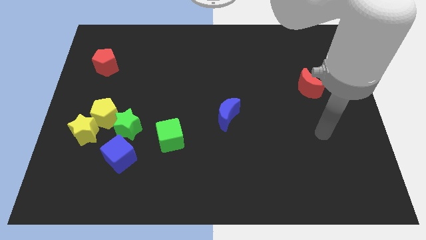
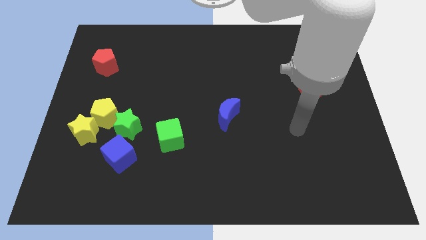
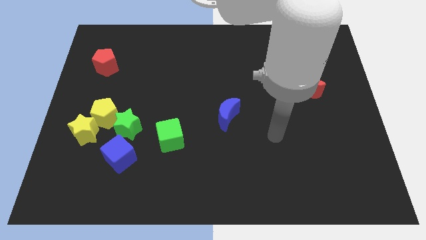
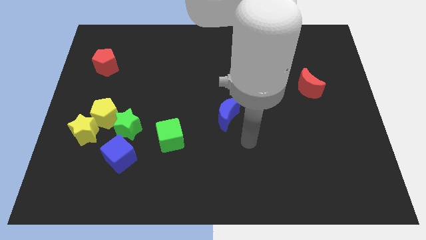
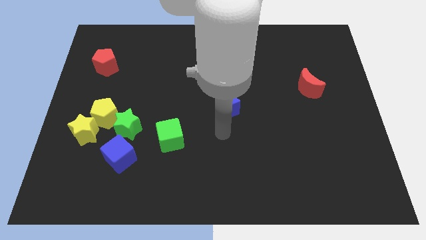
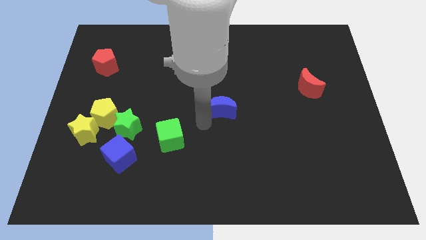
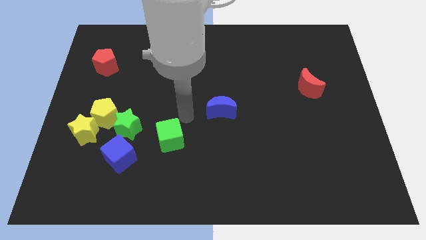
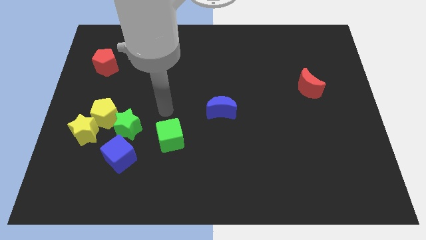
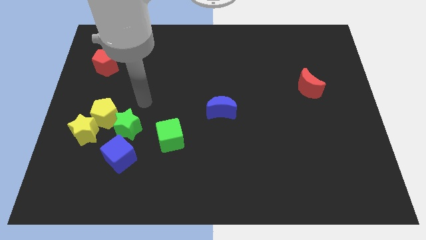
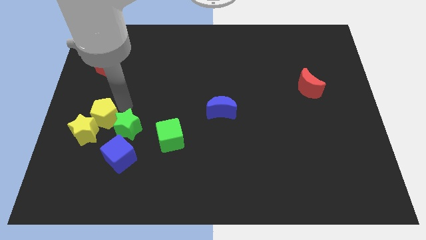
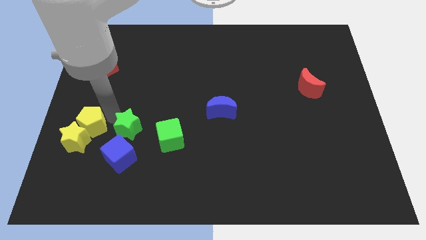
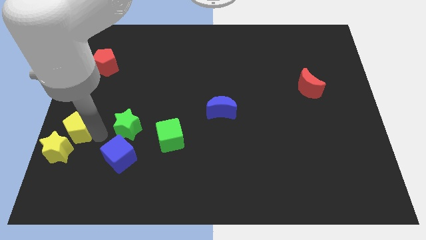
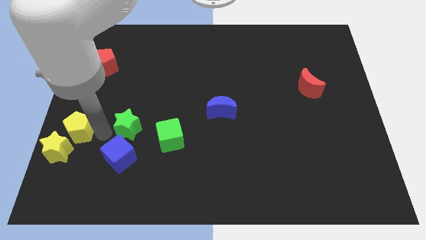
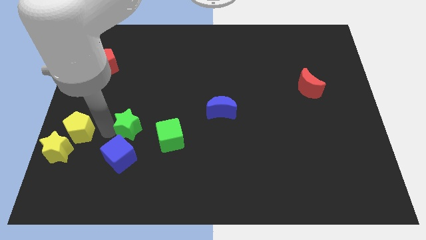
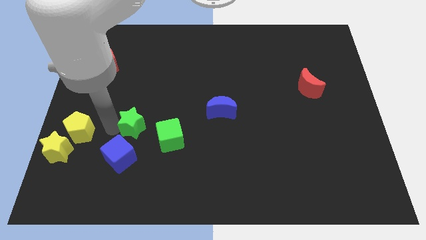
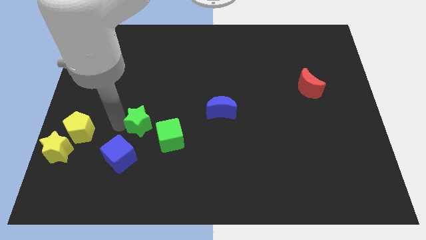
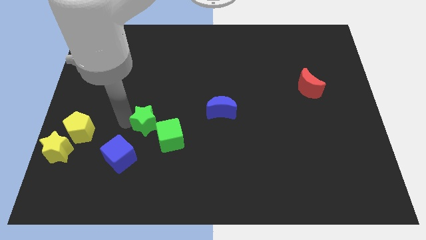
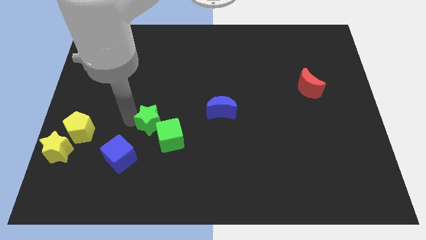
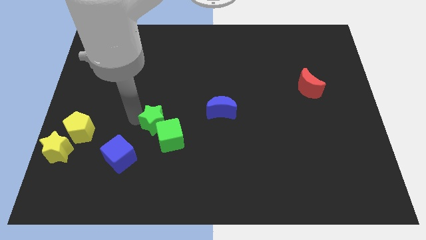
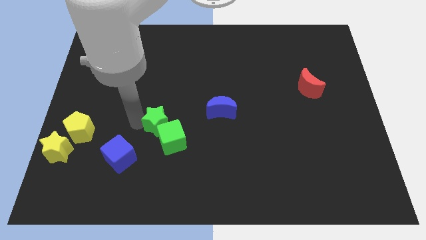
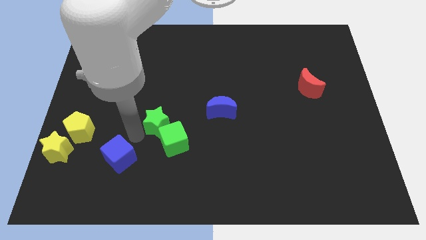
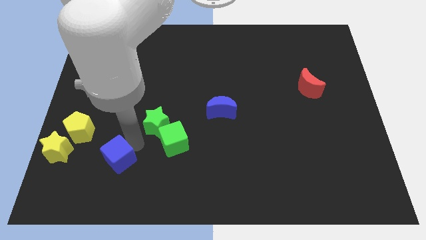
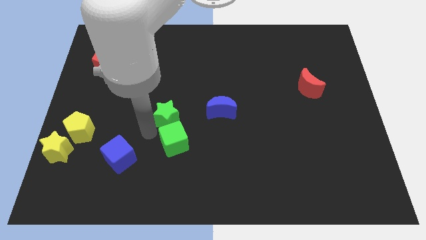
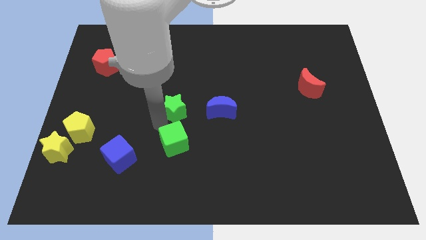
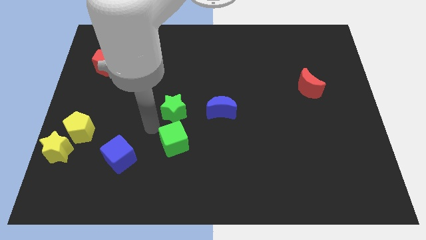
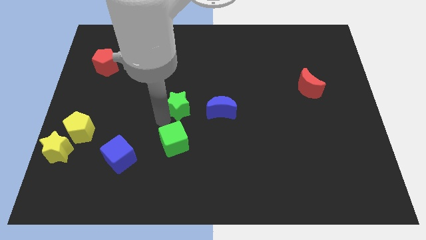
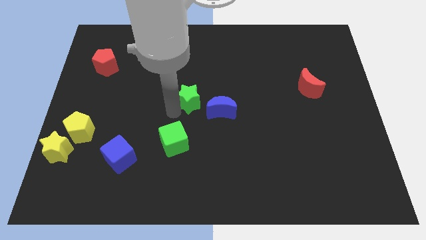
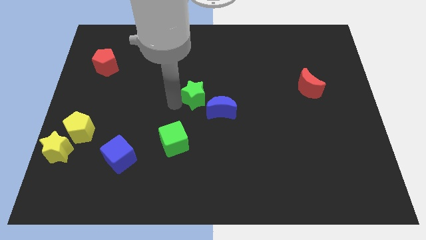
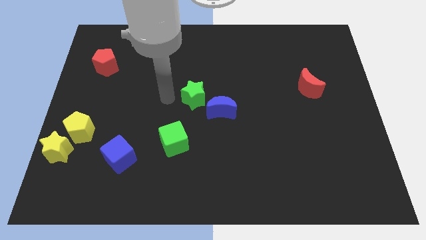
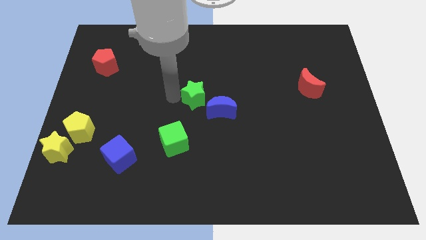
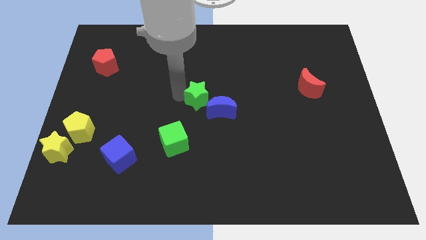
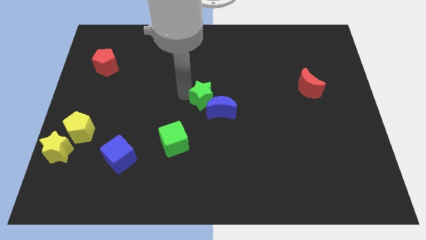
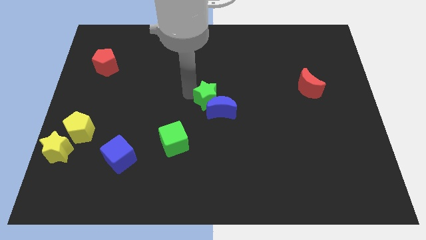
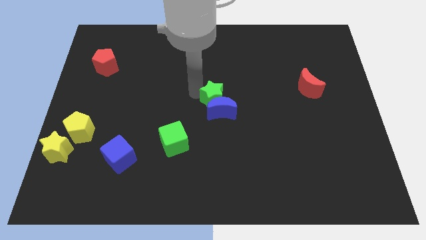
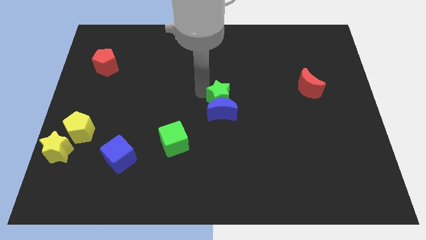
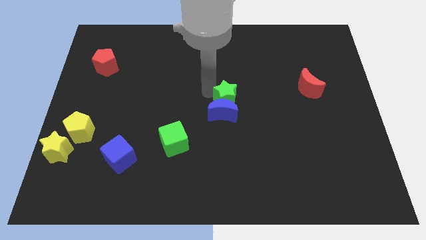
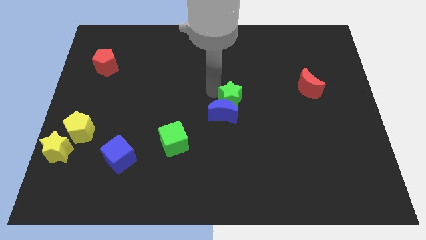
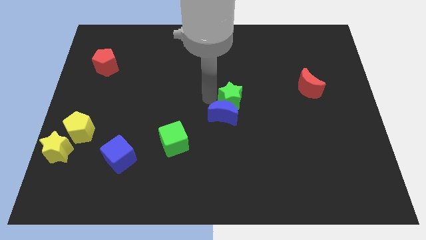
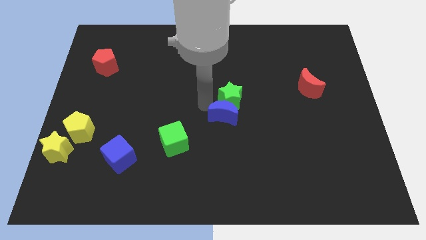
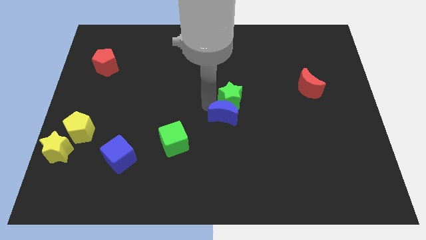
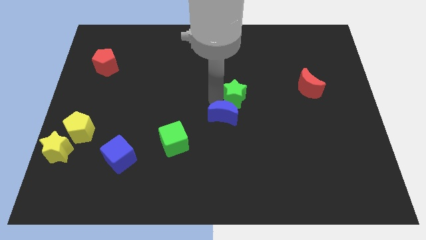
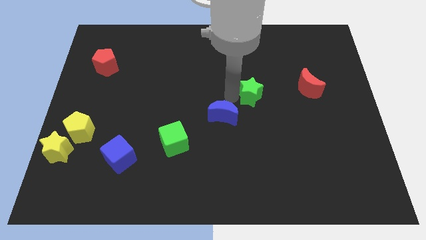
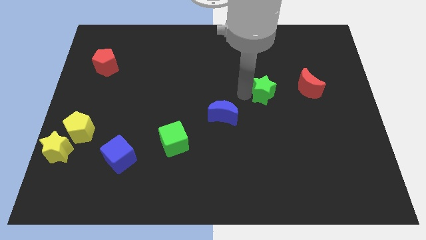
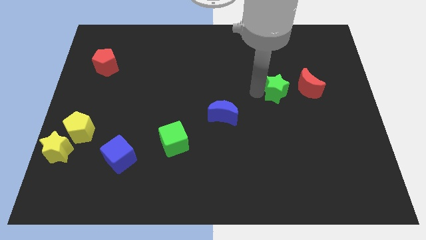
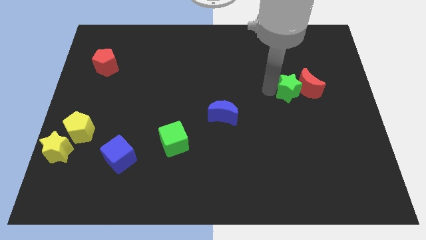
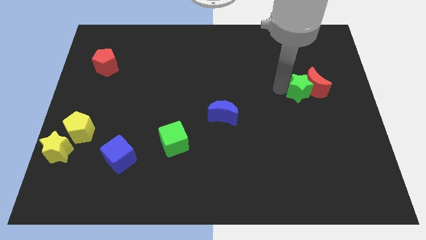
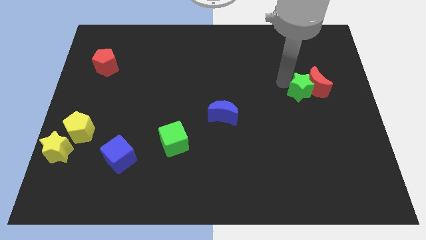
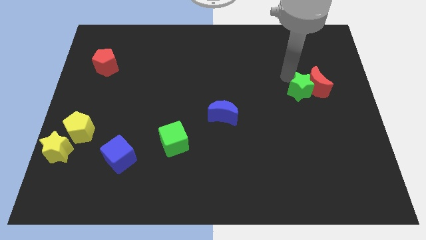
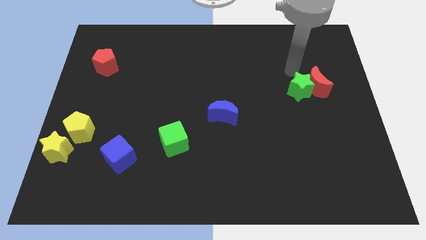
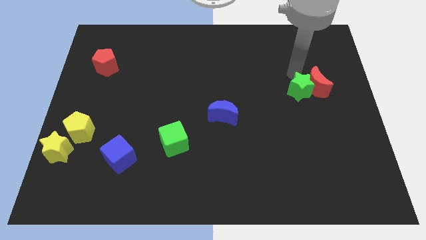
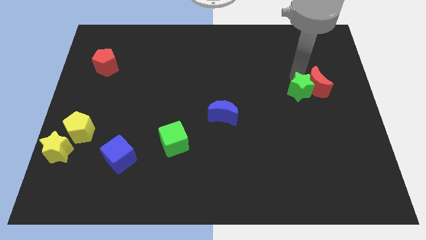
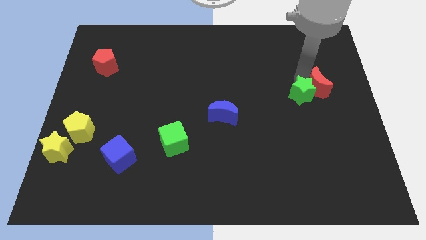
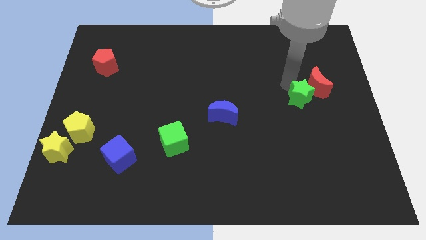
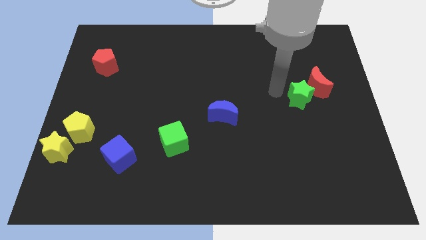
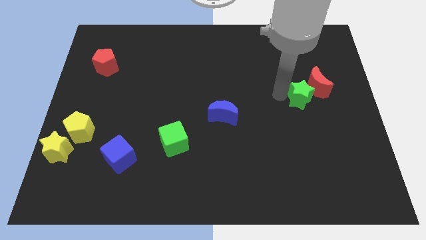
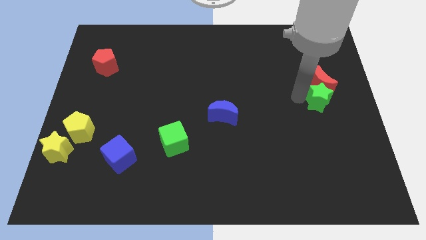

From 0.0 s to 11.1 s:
push the green star to the bottom right side of the red moon

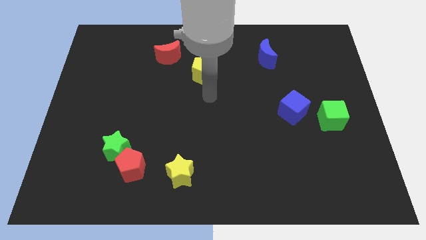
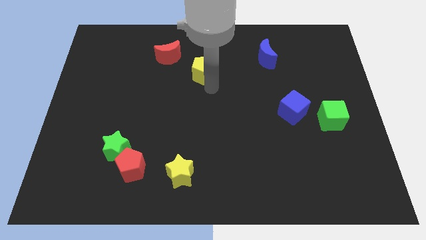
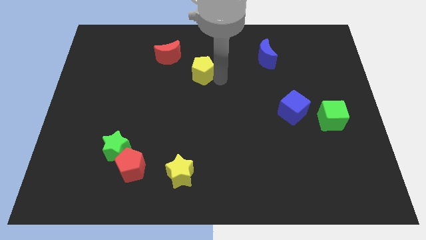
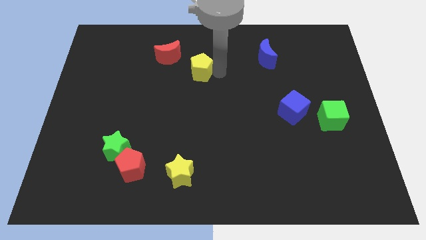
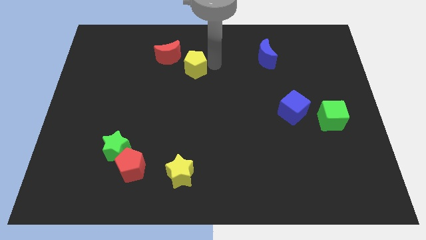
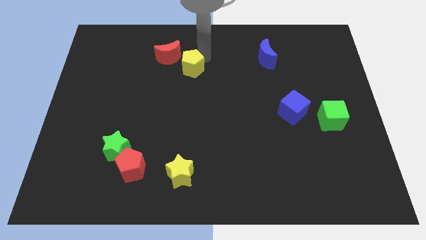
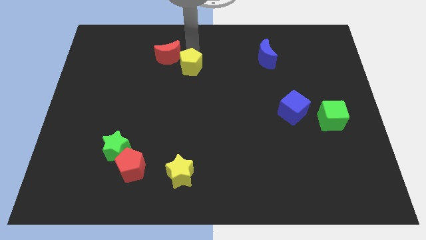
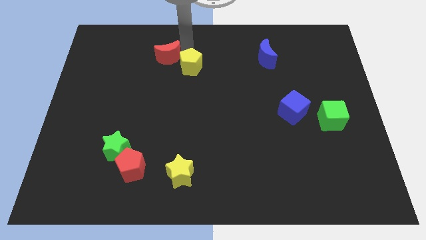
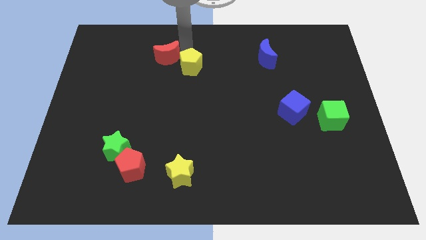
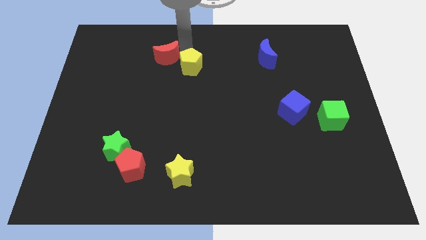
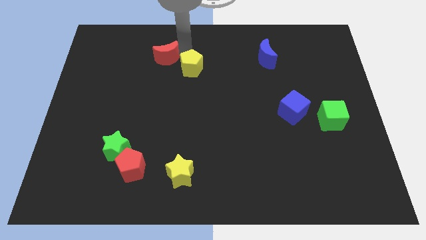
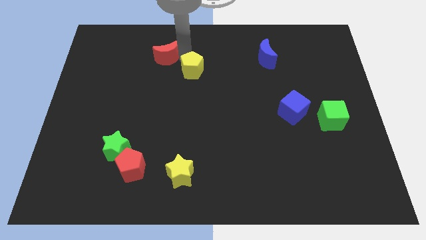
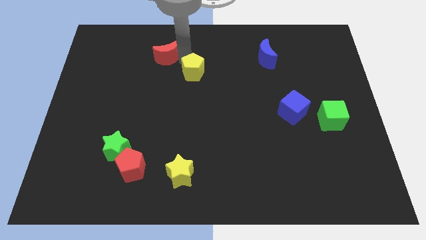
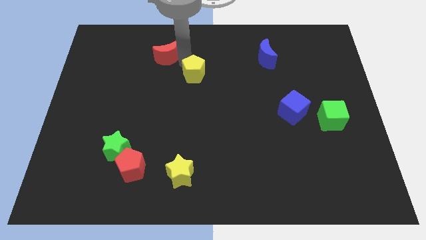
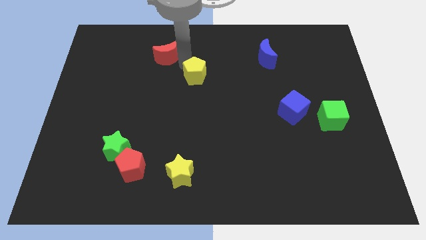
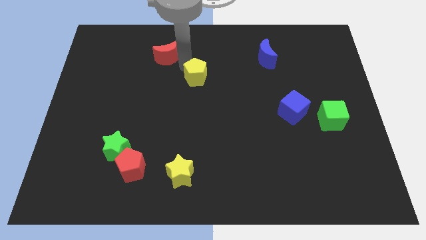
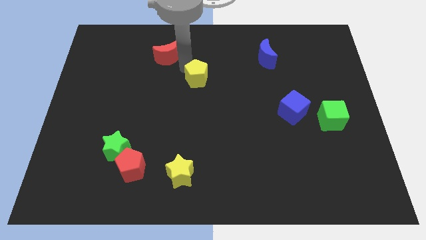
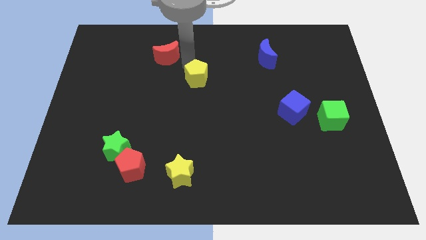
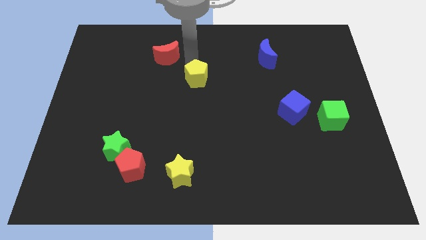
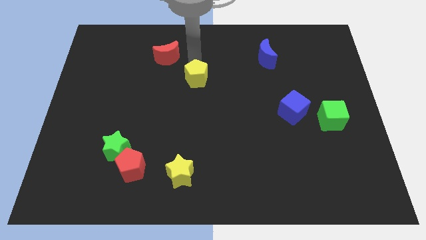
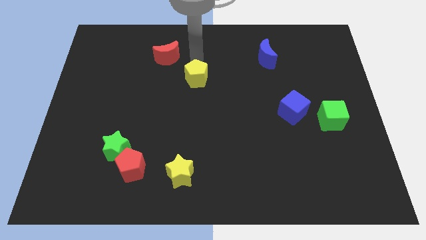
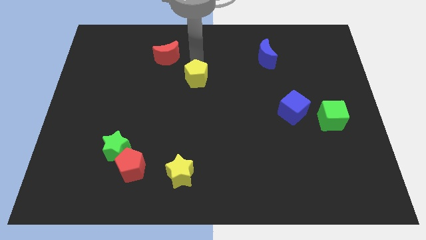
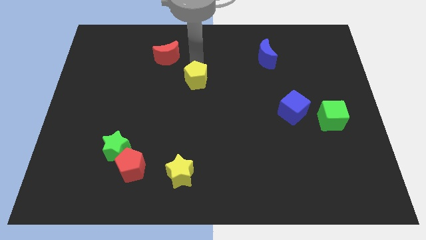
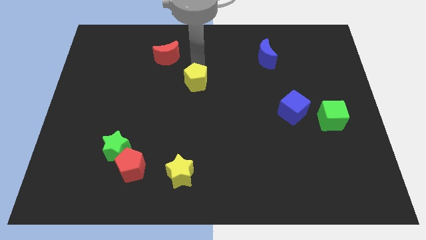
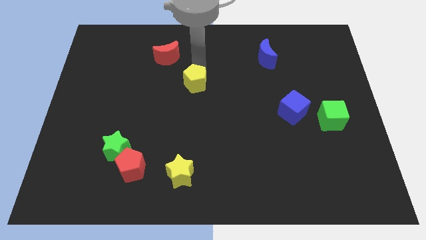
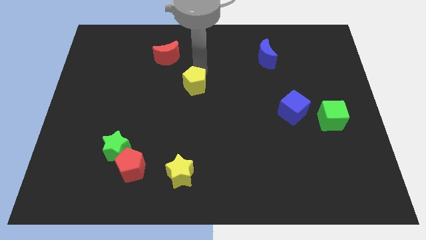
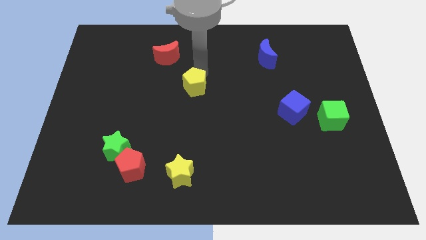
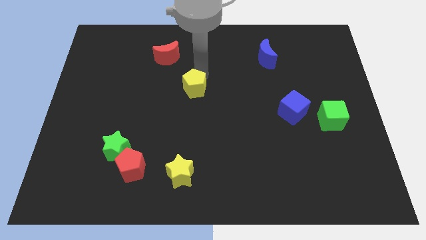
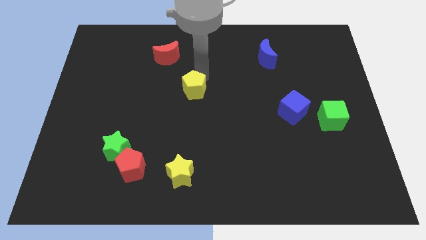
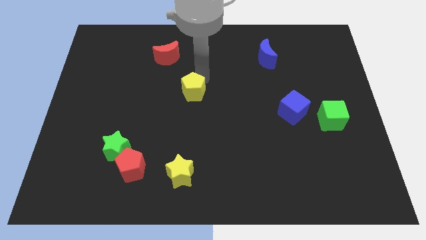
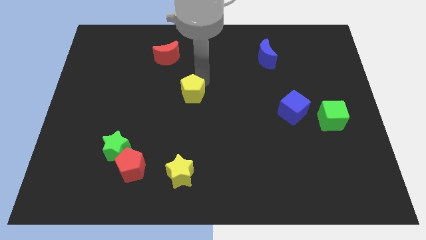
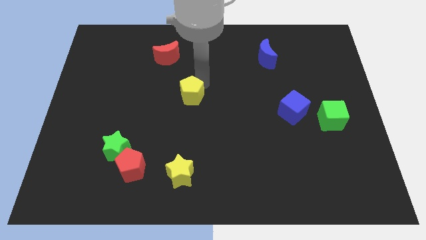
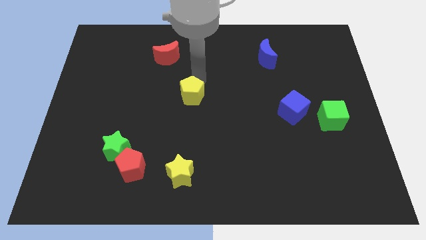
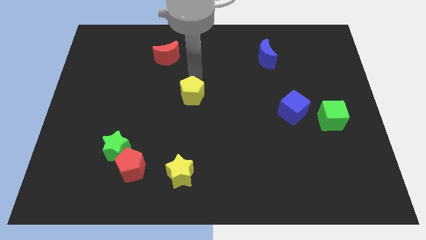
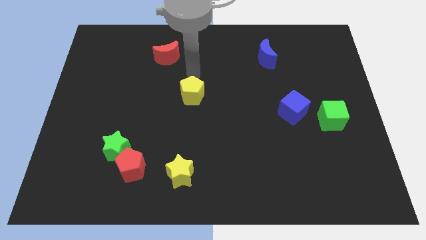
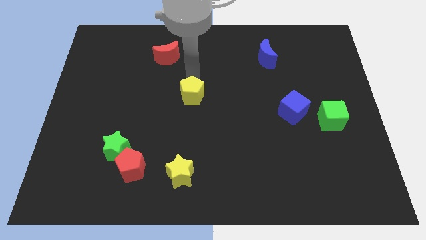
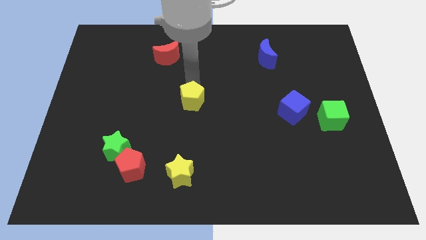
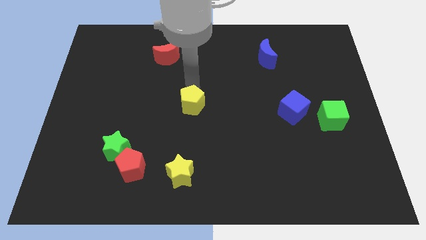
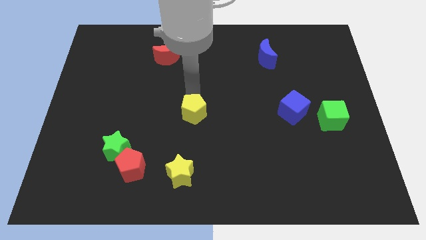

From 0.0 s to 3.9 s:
move the yellow pentagon above the yellow star
